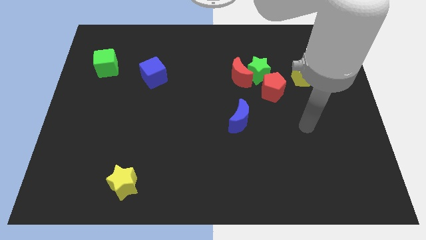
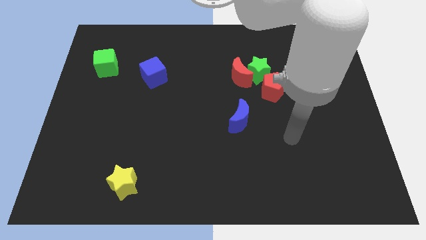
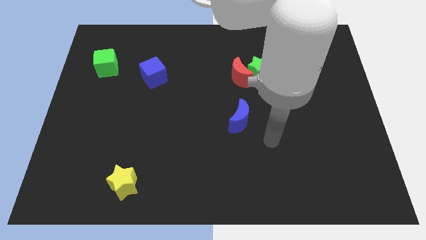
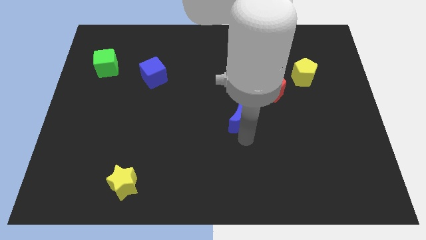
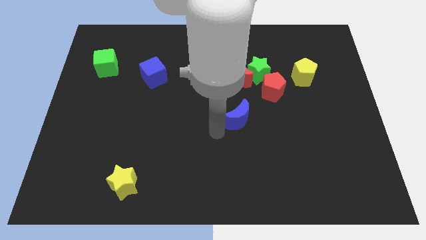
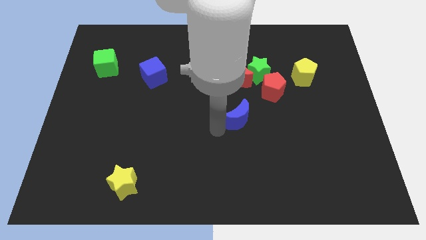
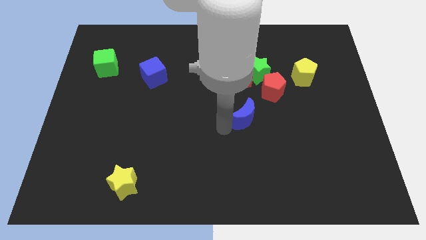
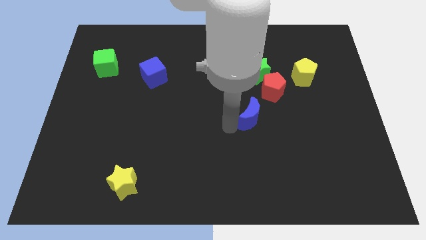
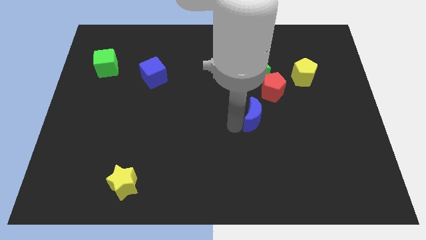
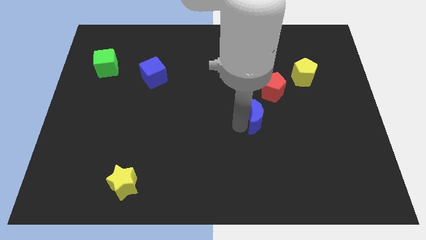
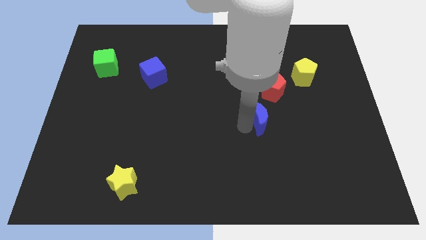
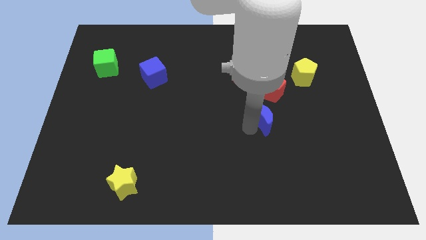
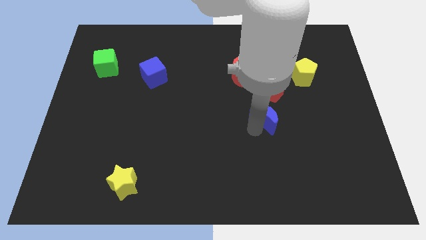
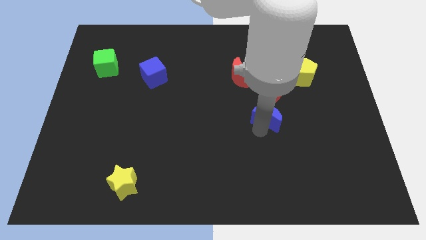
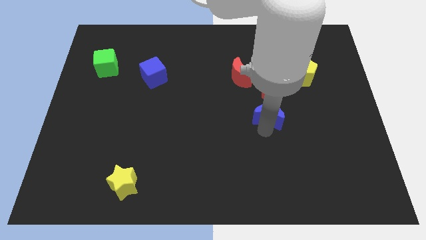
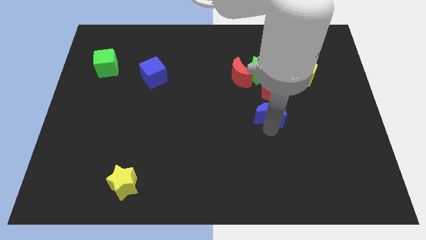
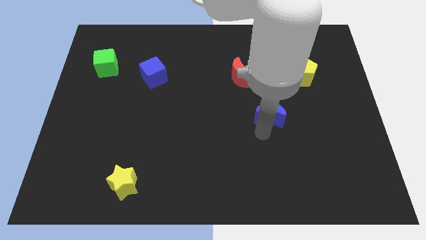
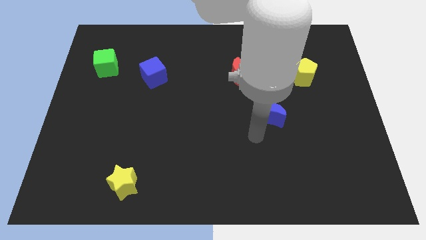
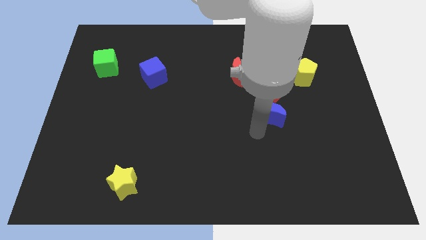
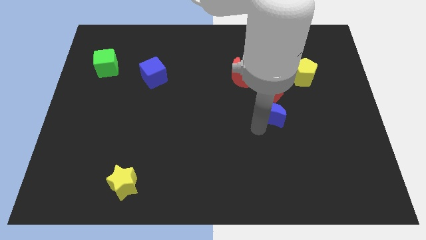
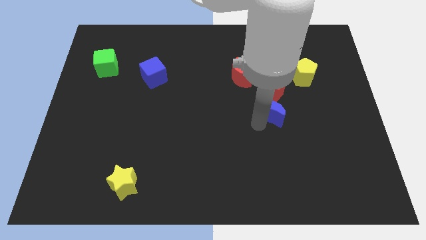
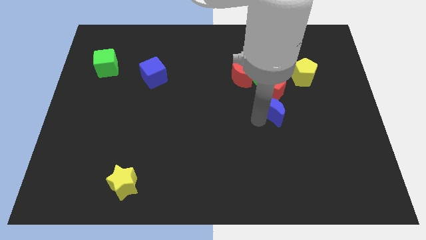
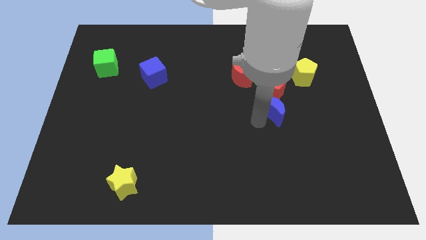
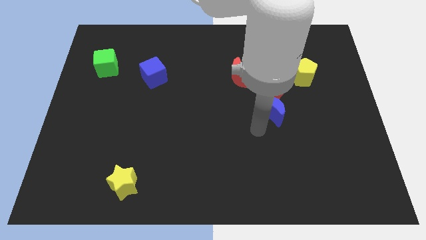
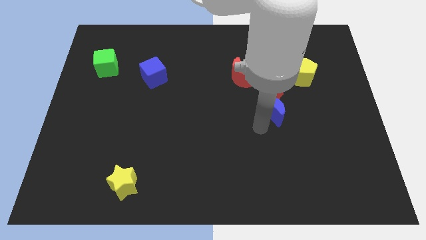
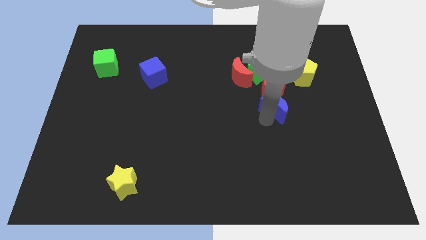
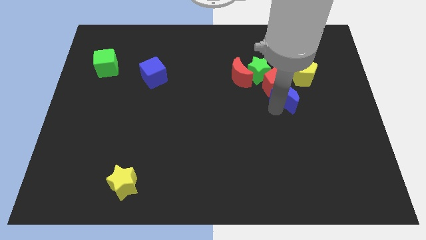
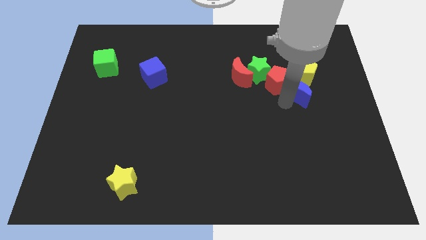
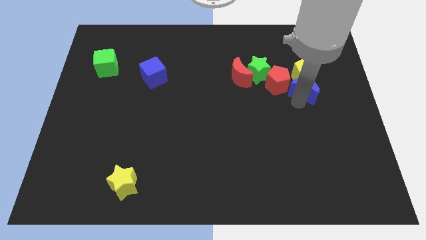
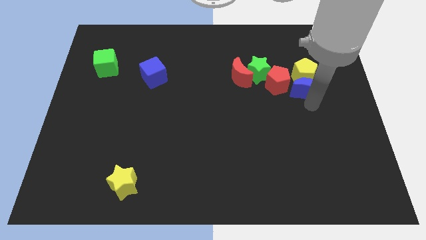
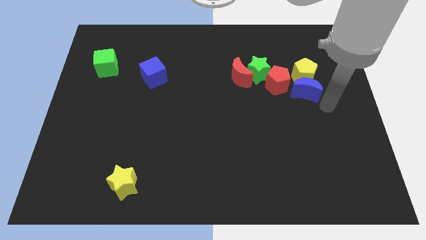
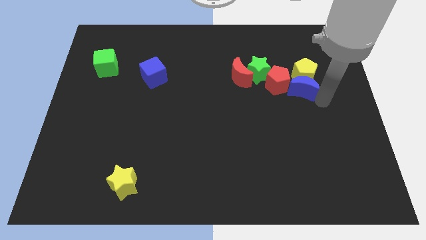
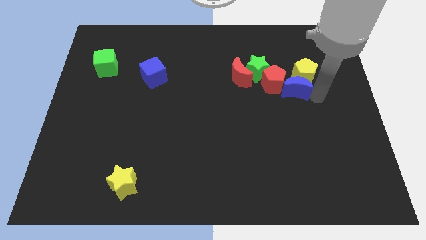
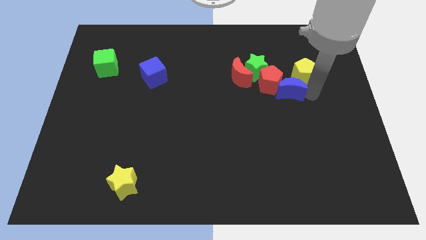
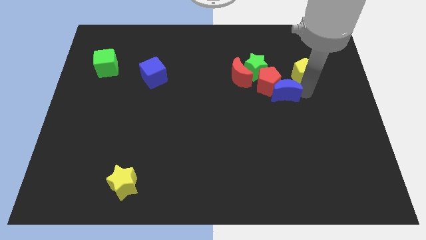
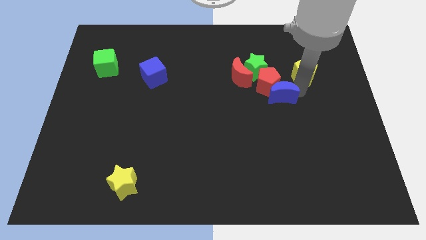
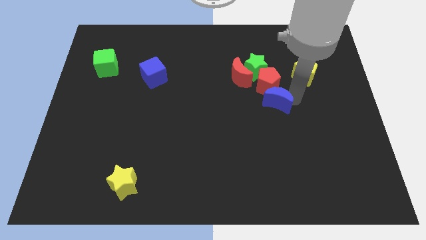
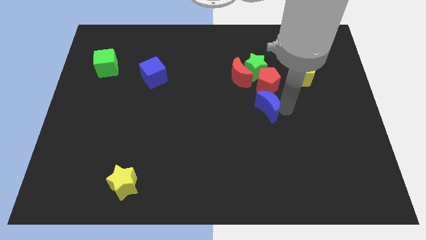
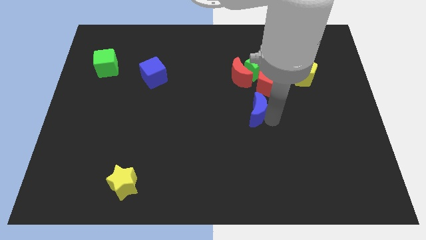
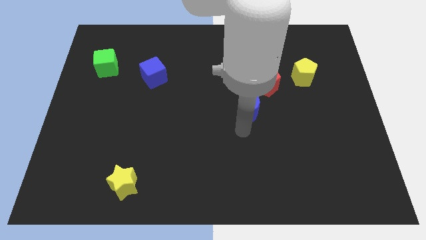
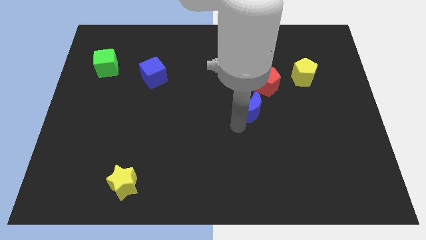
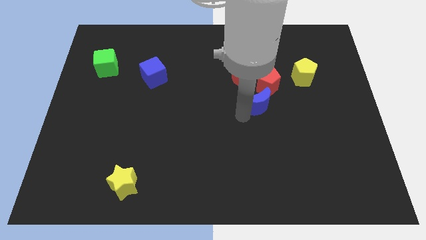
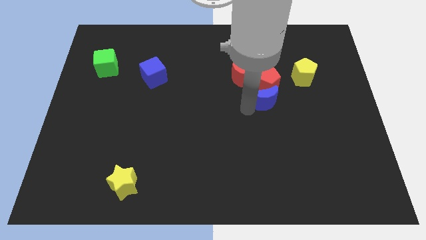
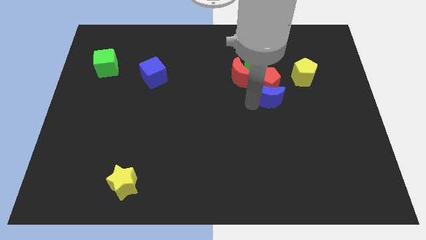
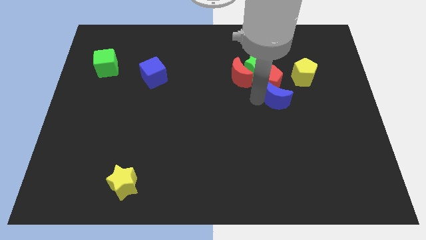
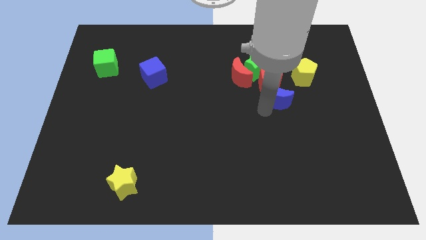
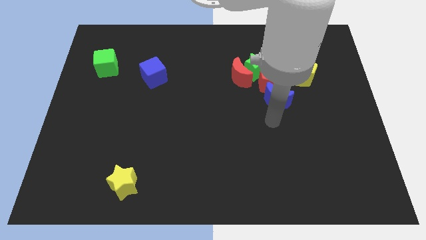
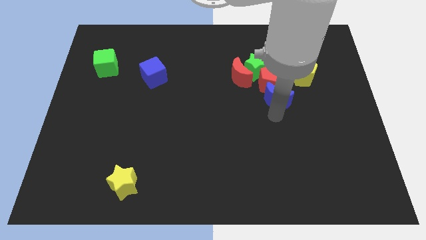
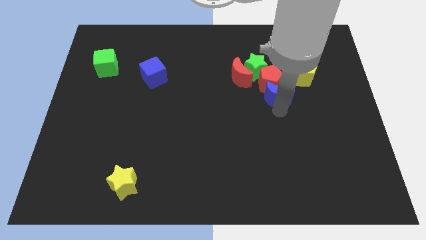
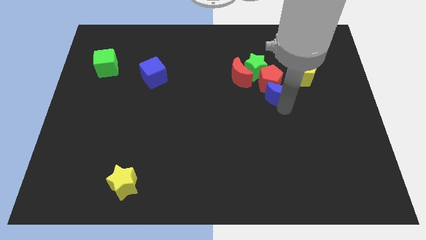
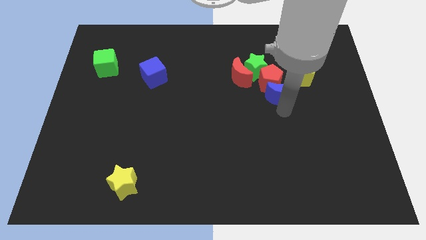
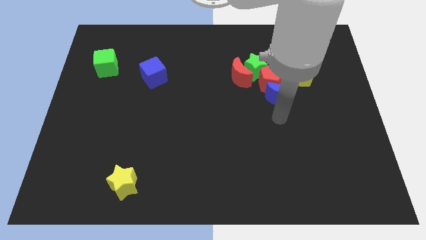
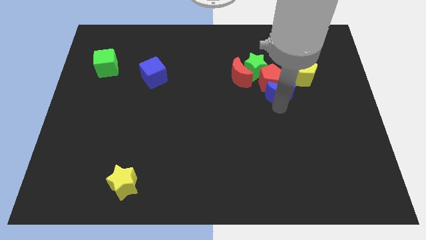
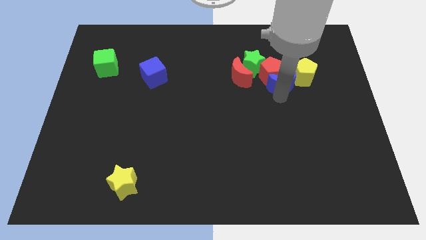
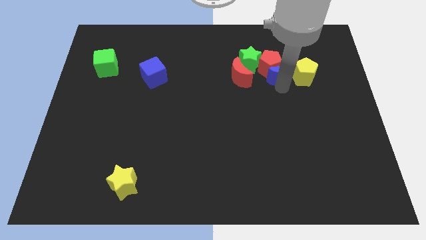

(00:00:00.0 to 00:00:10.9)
move the blue moon to the top left of the yellow pentagon

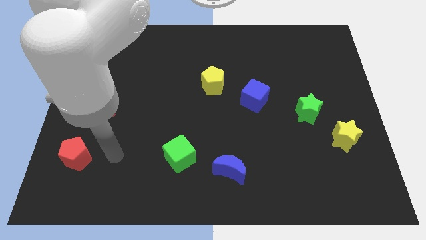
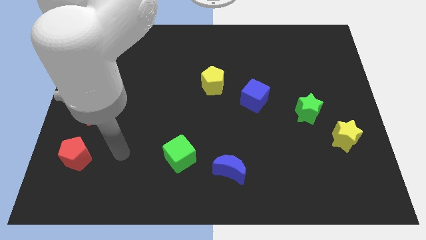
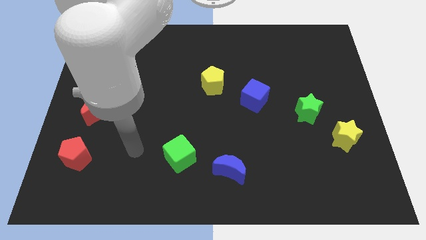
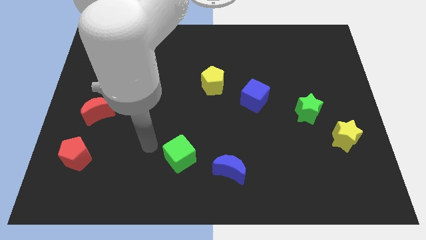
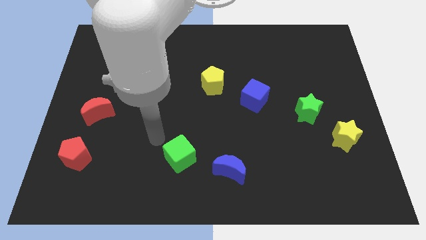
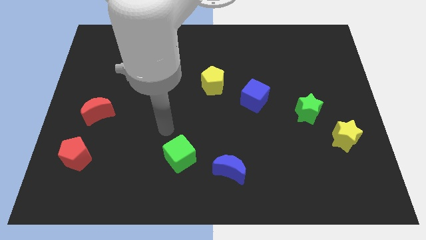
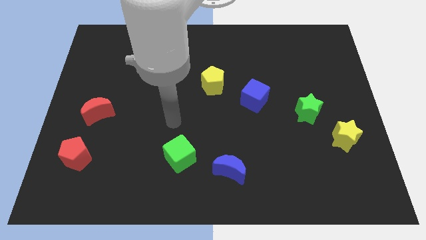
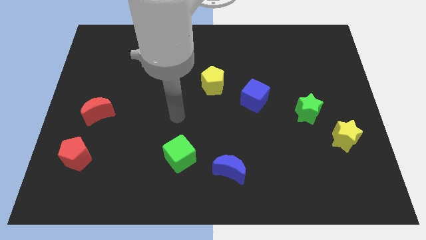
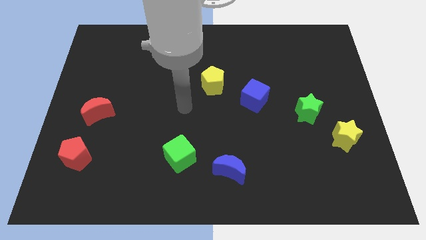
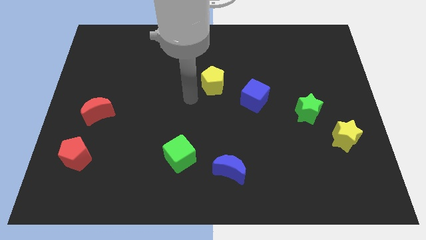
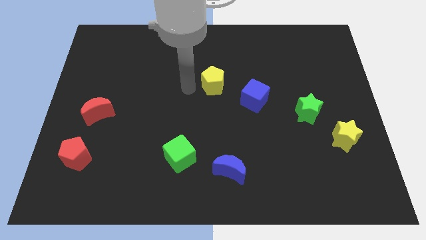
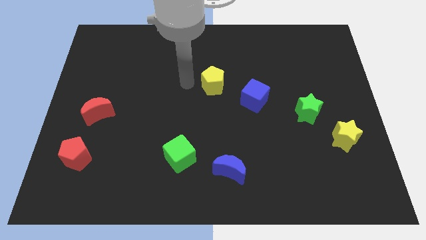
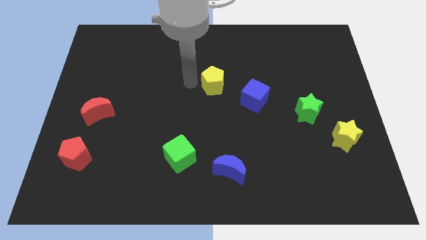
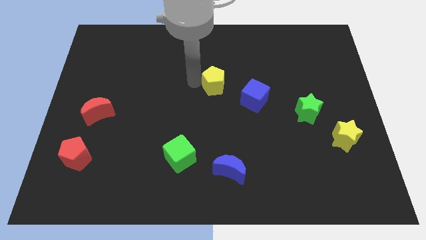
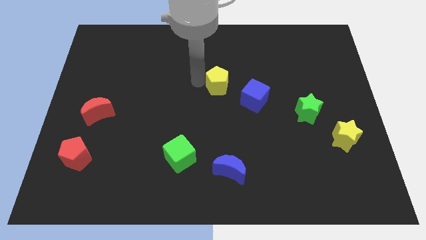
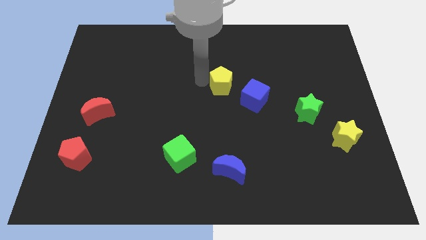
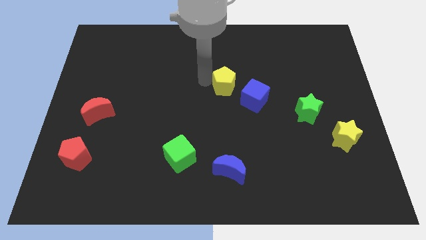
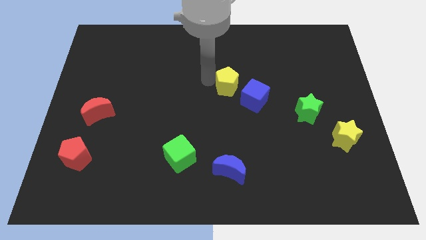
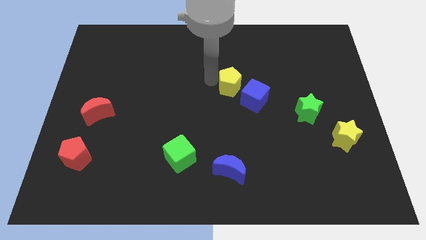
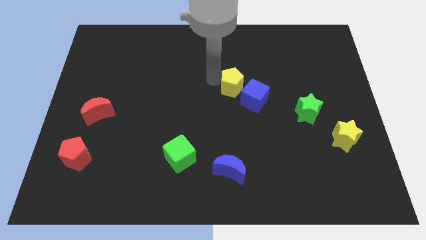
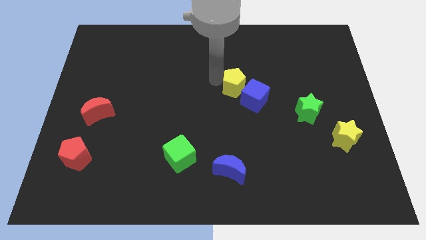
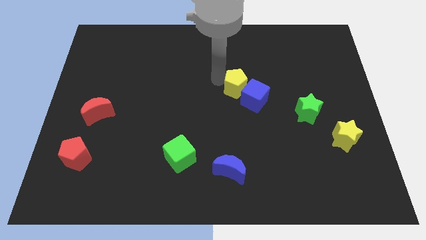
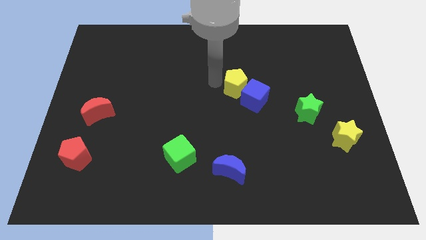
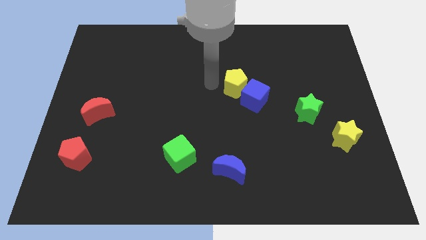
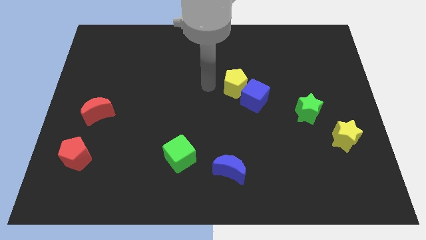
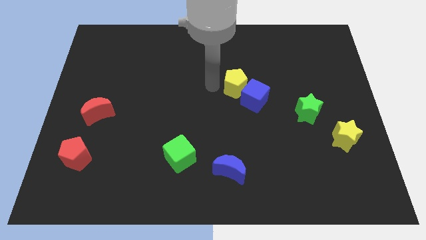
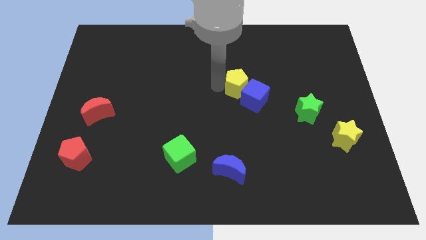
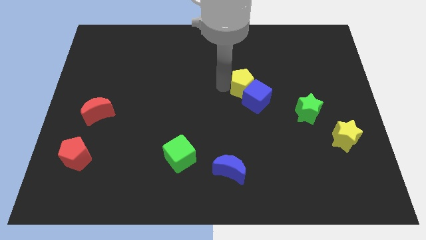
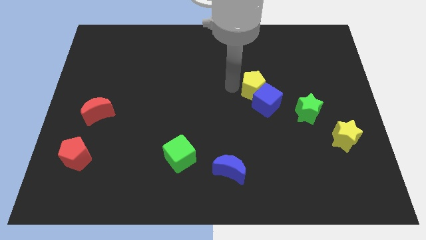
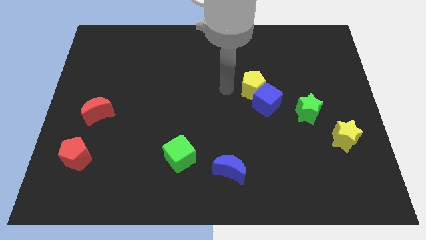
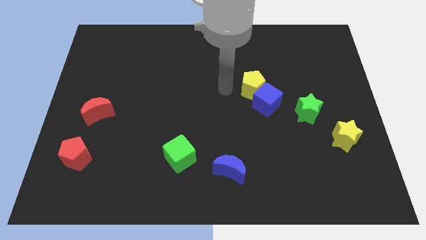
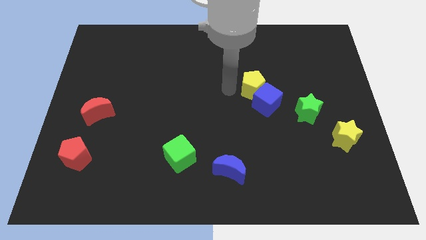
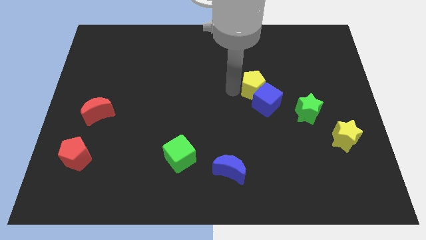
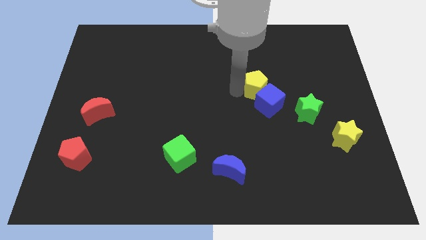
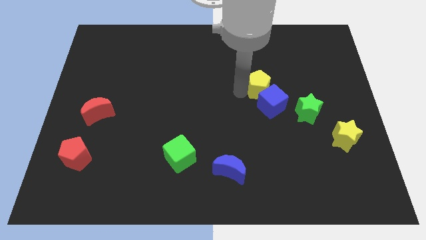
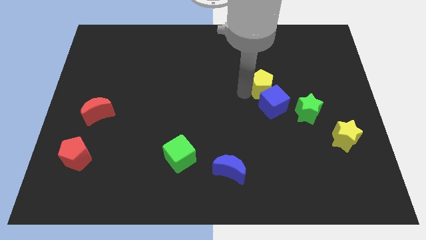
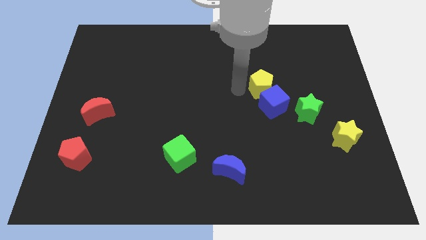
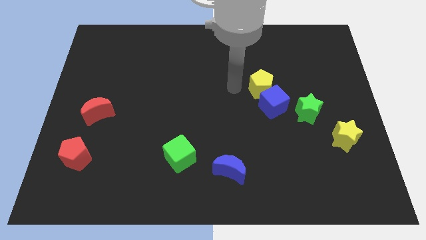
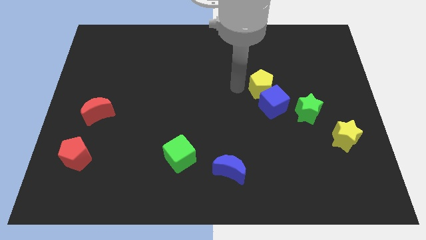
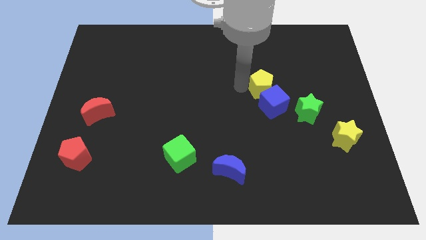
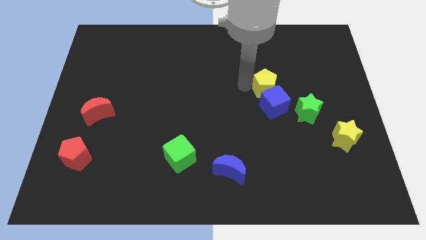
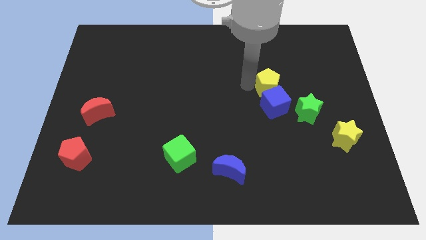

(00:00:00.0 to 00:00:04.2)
push the yellow pentagon to the top right of the blue cube
